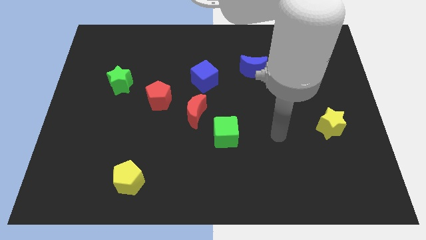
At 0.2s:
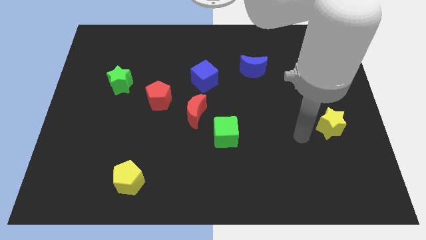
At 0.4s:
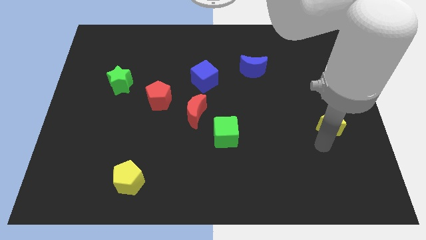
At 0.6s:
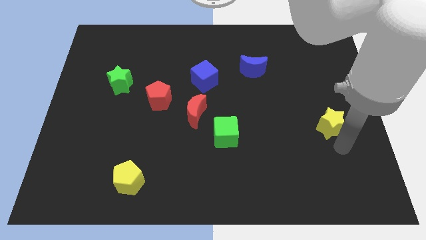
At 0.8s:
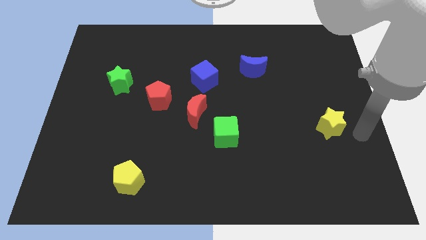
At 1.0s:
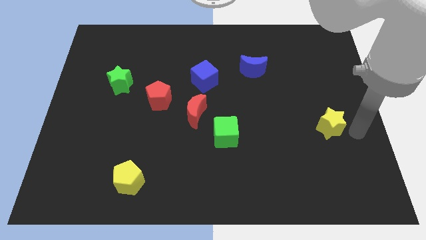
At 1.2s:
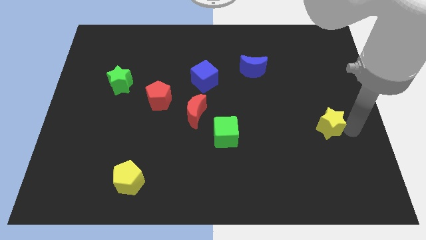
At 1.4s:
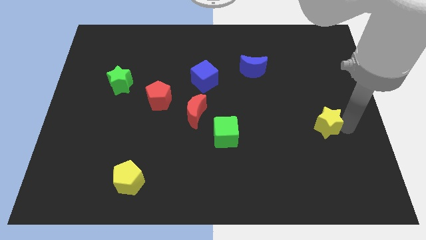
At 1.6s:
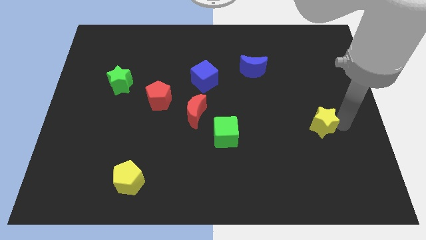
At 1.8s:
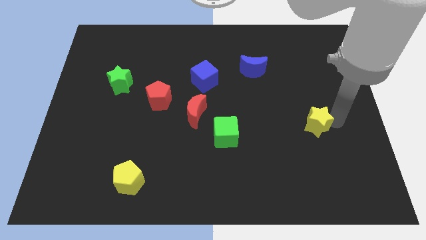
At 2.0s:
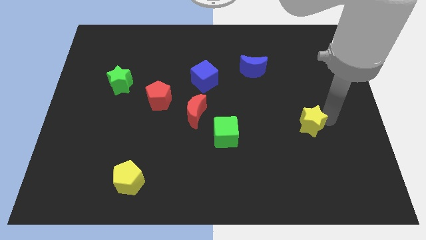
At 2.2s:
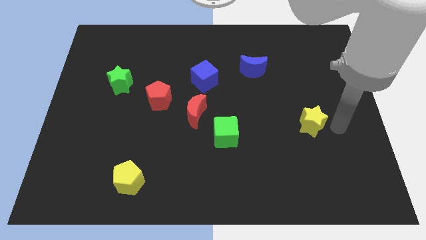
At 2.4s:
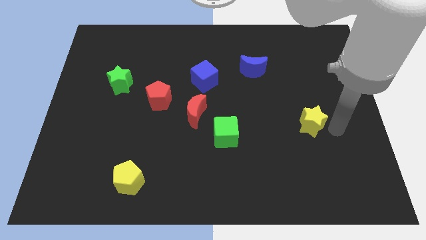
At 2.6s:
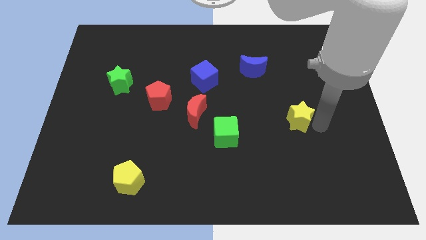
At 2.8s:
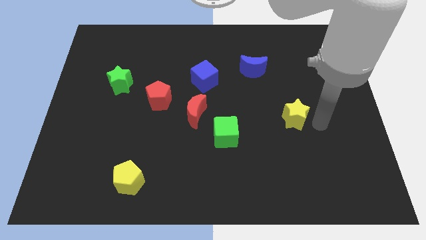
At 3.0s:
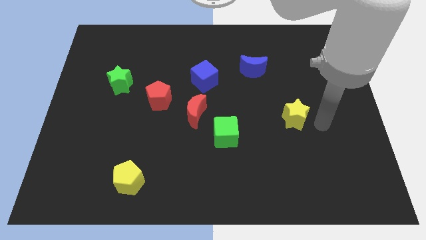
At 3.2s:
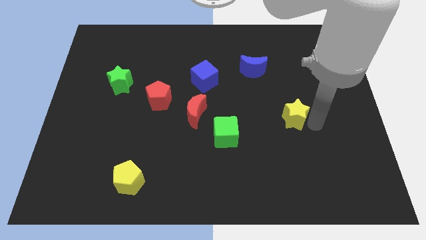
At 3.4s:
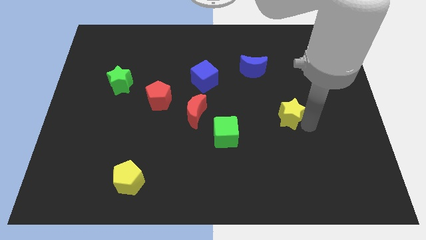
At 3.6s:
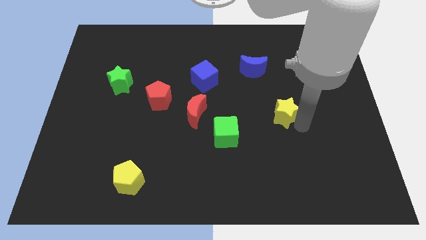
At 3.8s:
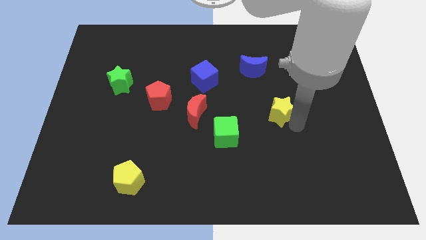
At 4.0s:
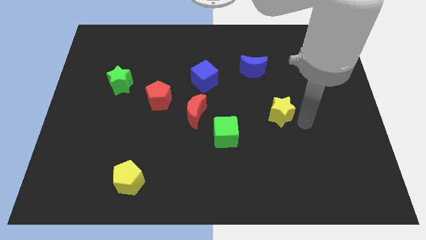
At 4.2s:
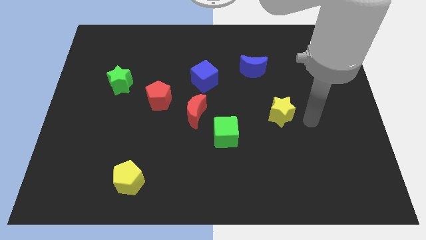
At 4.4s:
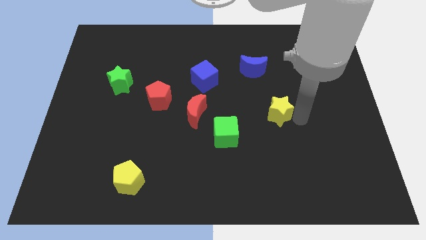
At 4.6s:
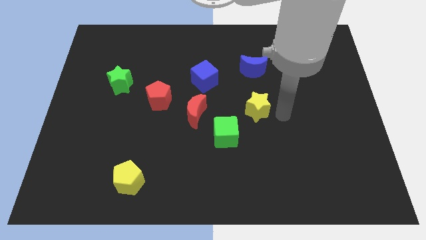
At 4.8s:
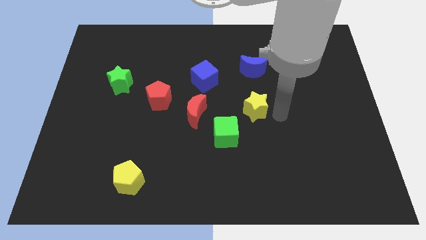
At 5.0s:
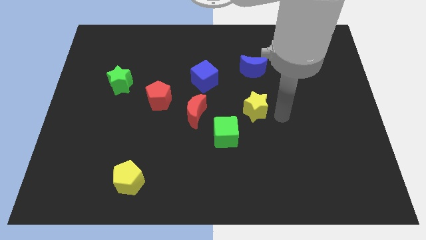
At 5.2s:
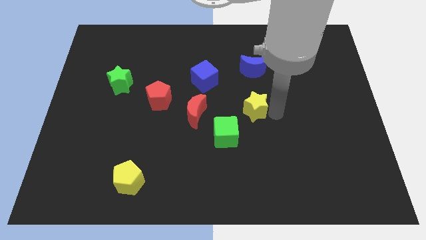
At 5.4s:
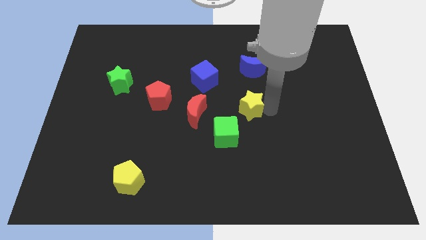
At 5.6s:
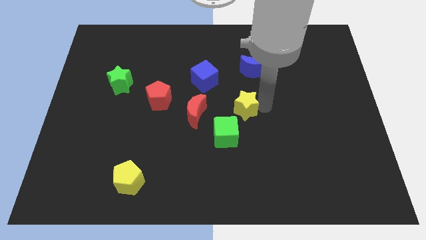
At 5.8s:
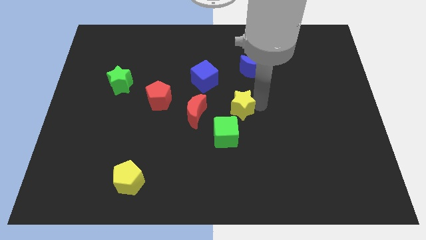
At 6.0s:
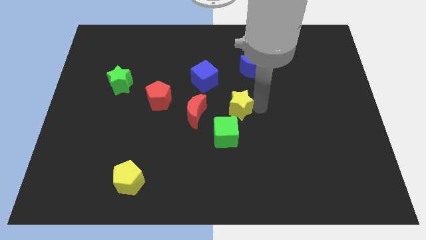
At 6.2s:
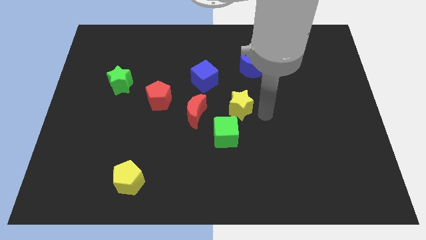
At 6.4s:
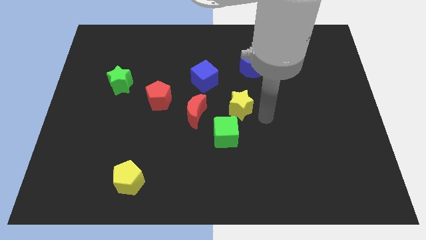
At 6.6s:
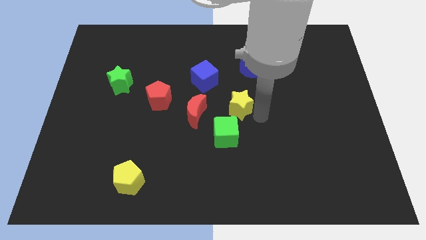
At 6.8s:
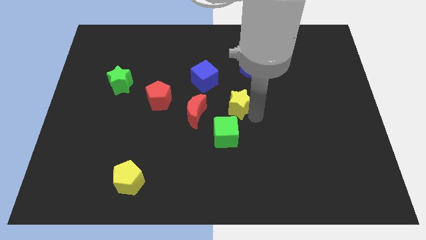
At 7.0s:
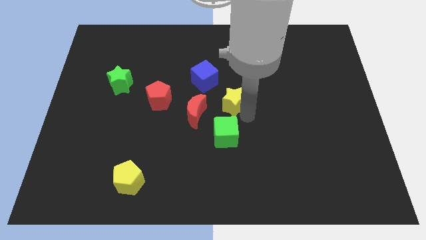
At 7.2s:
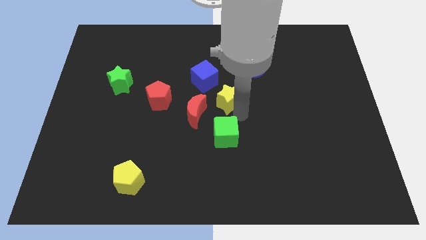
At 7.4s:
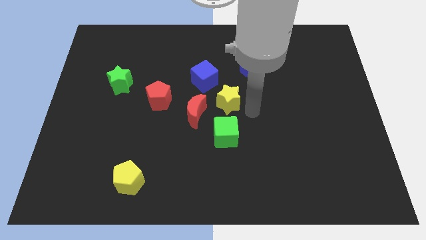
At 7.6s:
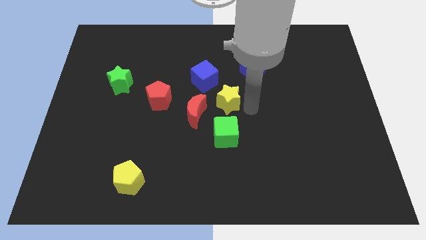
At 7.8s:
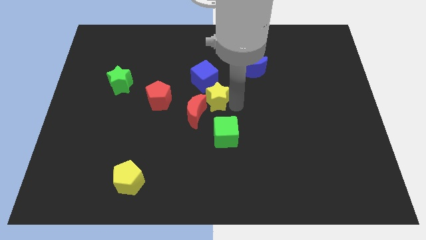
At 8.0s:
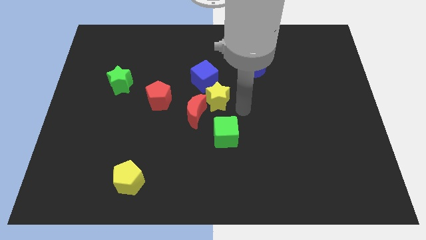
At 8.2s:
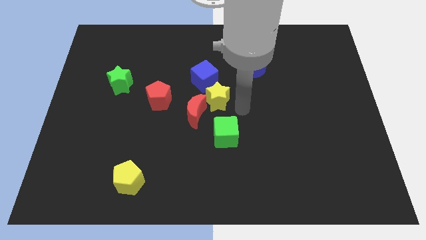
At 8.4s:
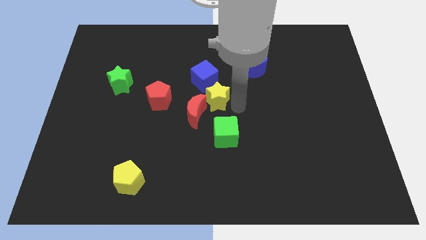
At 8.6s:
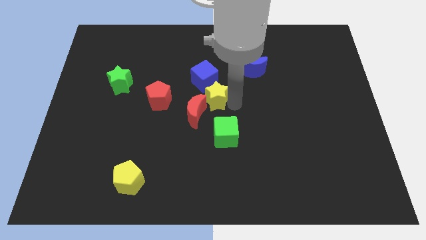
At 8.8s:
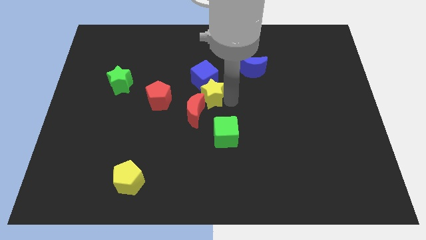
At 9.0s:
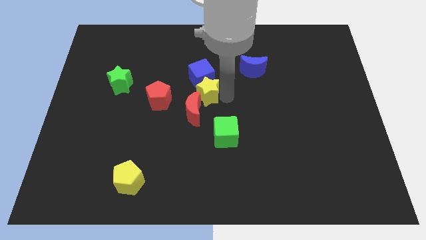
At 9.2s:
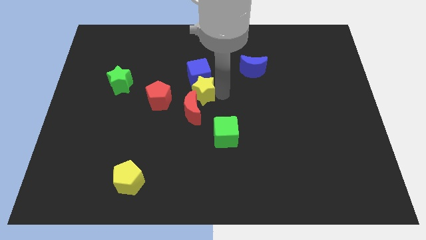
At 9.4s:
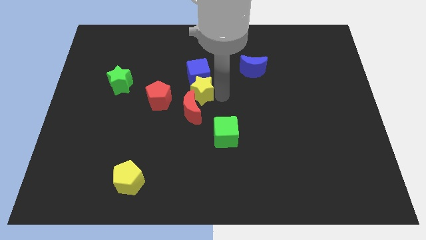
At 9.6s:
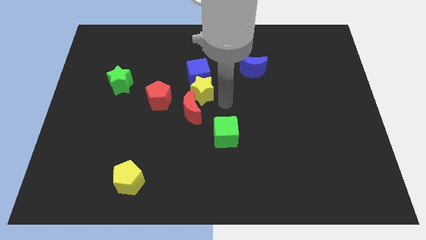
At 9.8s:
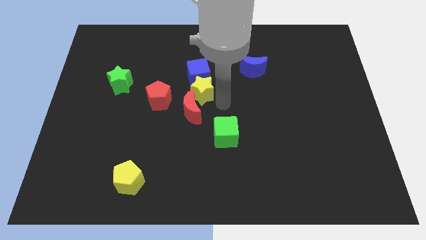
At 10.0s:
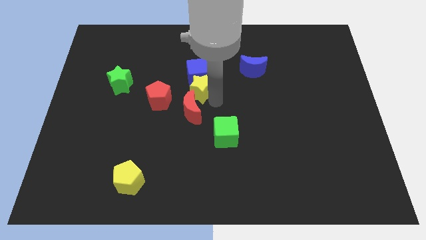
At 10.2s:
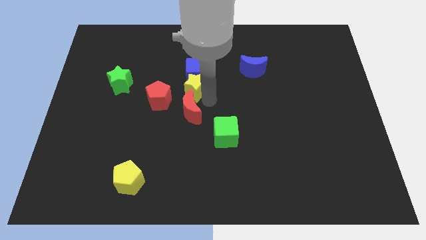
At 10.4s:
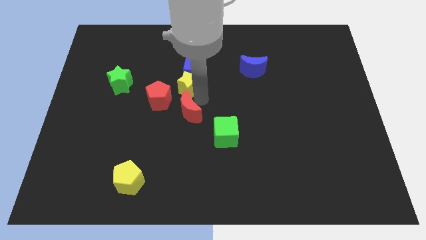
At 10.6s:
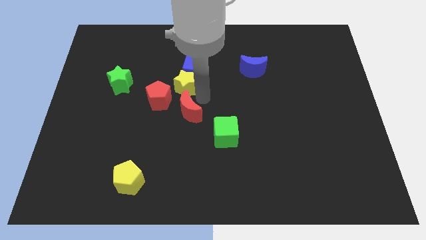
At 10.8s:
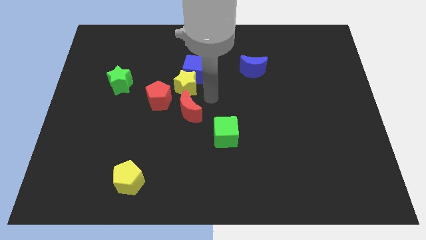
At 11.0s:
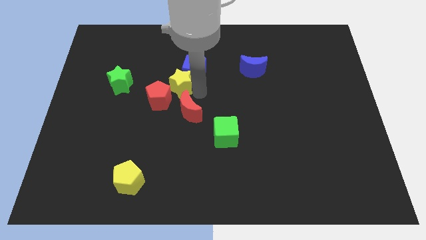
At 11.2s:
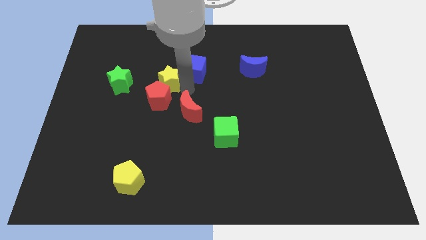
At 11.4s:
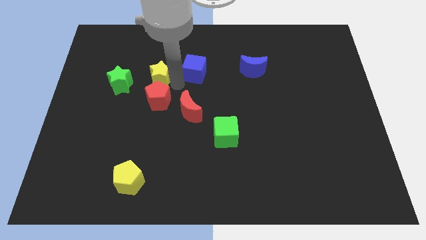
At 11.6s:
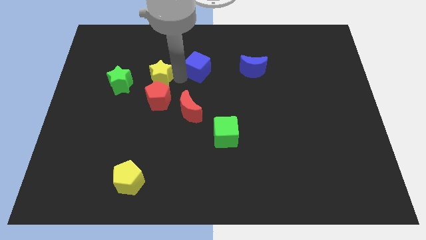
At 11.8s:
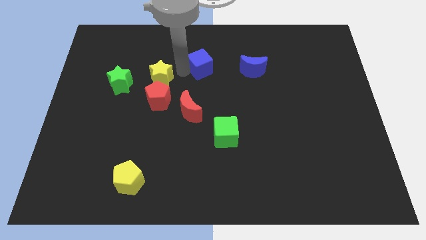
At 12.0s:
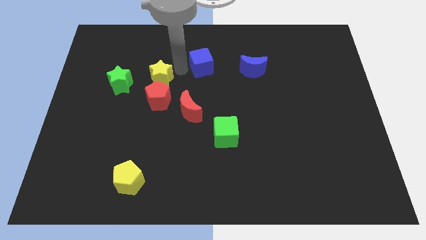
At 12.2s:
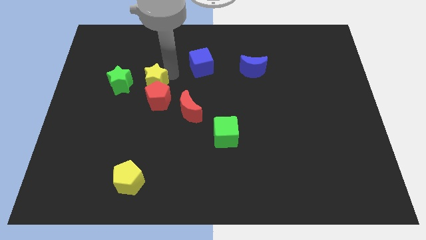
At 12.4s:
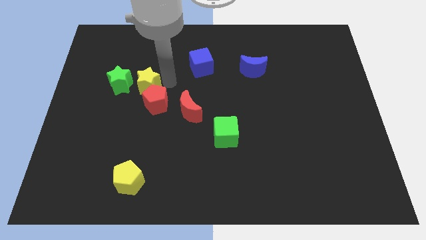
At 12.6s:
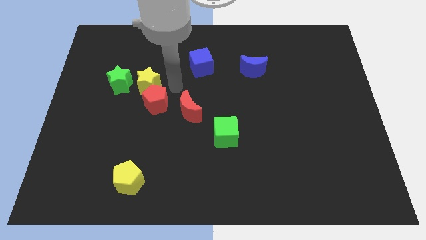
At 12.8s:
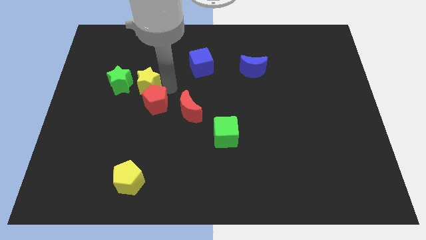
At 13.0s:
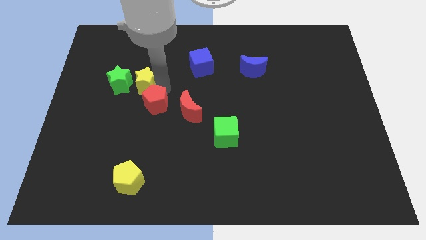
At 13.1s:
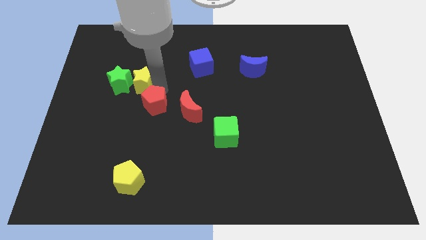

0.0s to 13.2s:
move the yellow star next to the green star

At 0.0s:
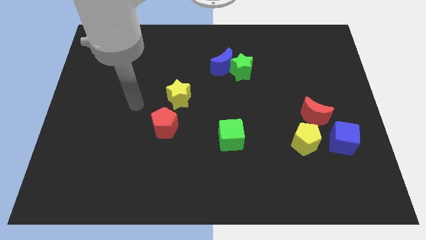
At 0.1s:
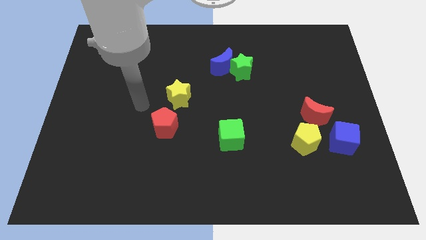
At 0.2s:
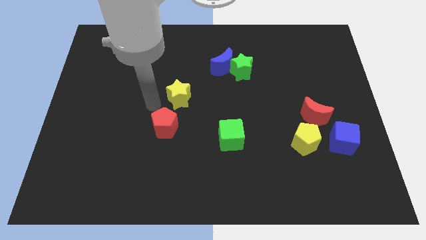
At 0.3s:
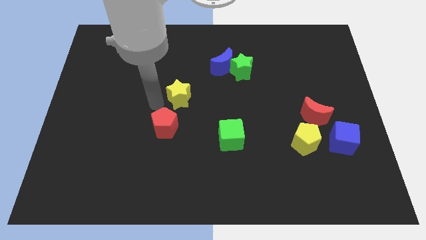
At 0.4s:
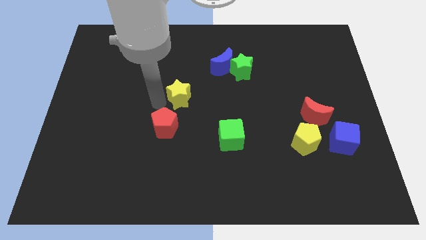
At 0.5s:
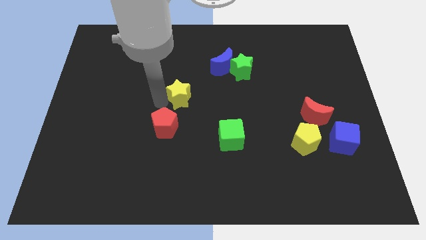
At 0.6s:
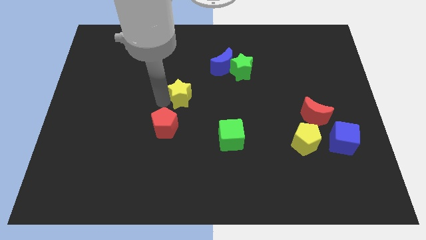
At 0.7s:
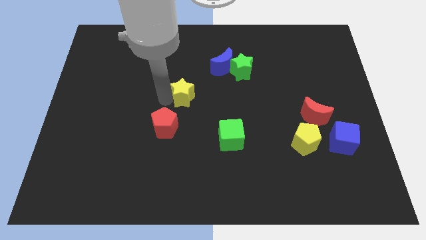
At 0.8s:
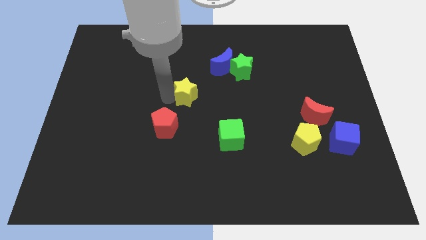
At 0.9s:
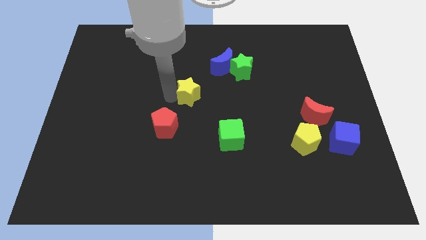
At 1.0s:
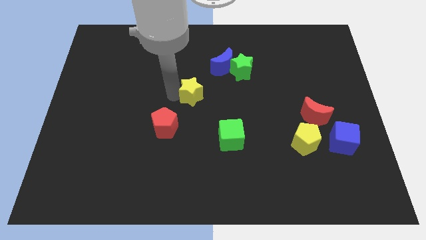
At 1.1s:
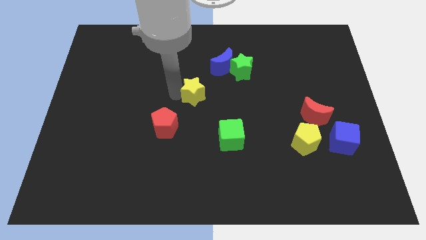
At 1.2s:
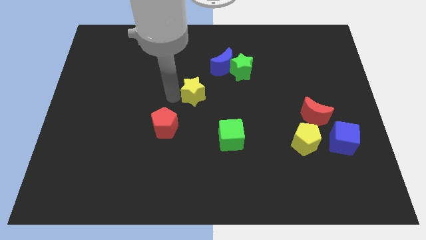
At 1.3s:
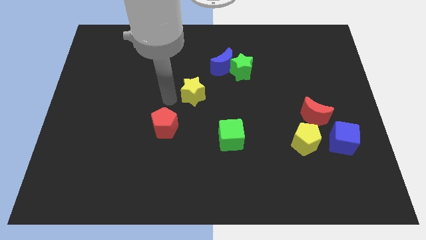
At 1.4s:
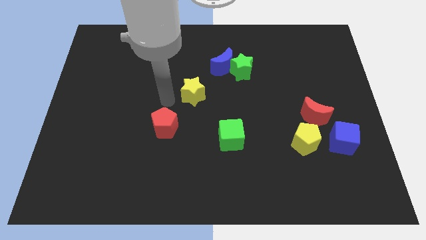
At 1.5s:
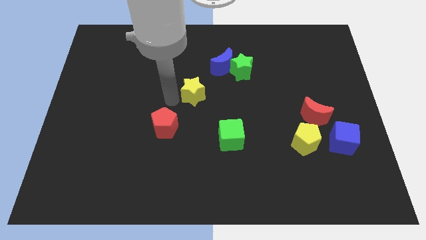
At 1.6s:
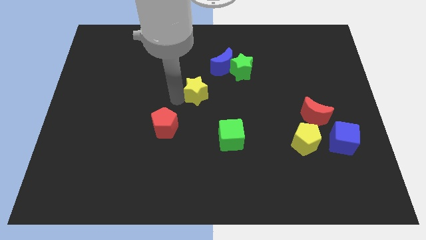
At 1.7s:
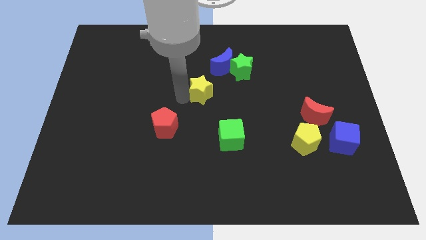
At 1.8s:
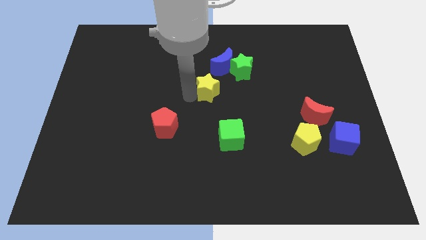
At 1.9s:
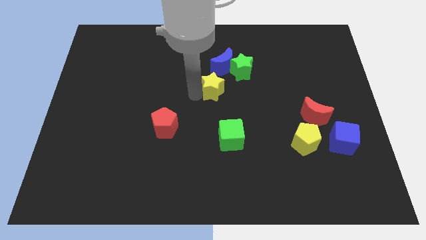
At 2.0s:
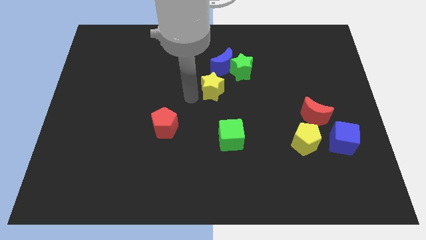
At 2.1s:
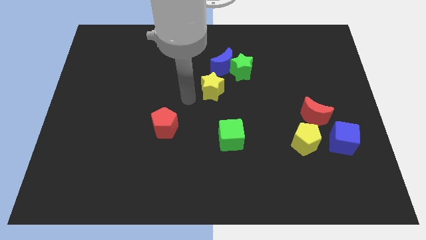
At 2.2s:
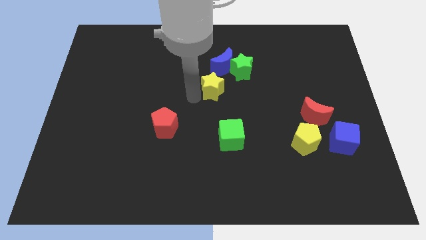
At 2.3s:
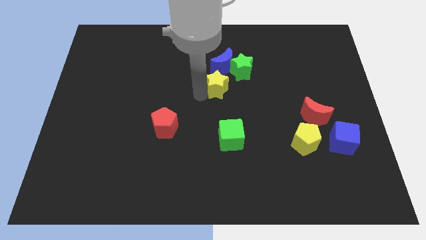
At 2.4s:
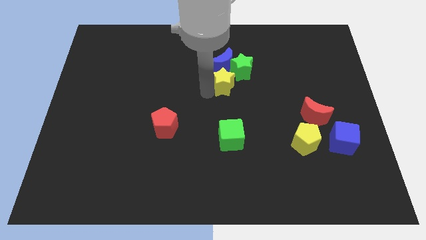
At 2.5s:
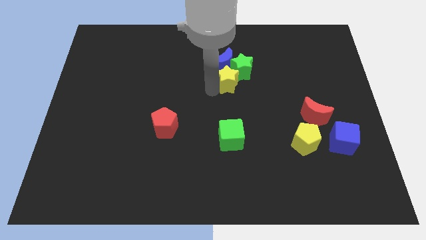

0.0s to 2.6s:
put the yellow star close to the green star
